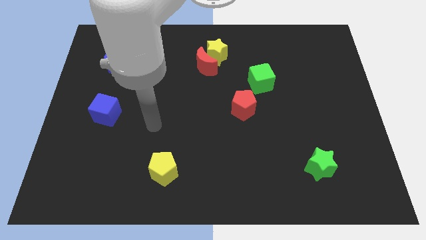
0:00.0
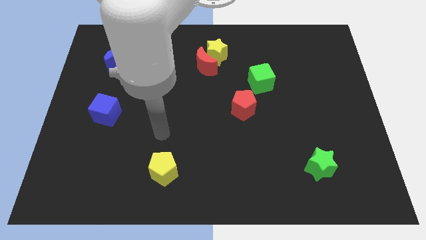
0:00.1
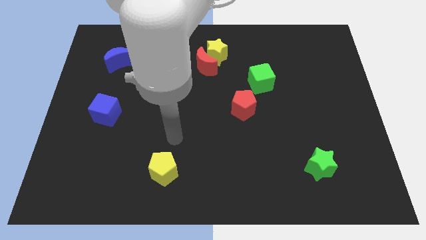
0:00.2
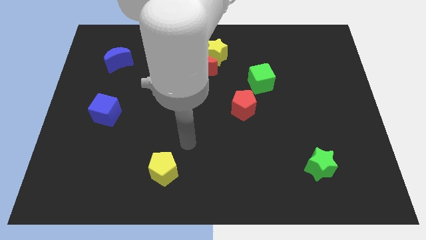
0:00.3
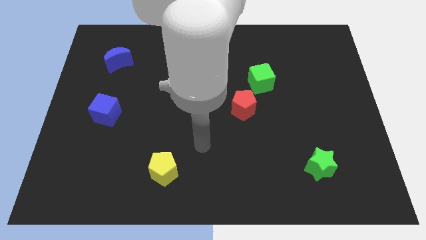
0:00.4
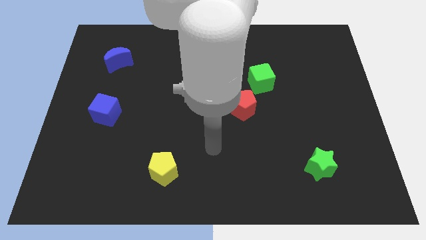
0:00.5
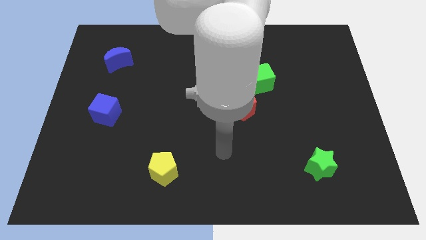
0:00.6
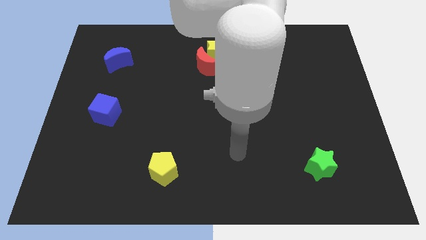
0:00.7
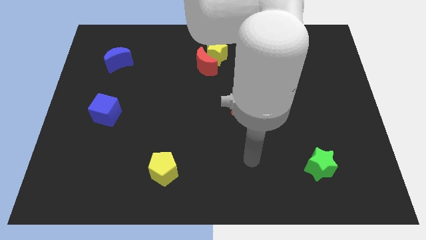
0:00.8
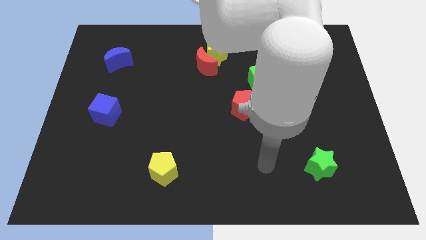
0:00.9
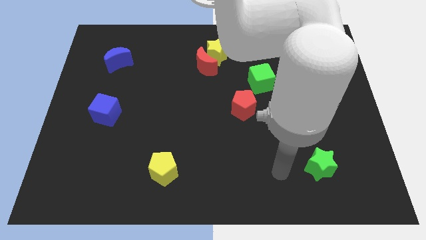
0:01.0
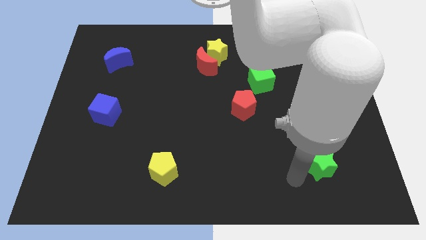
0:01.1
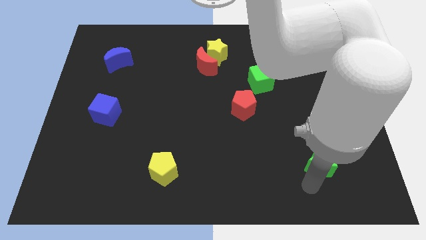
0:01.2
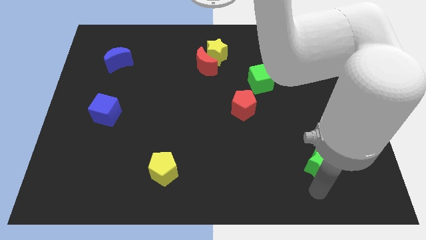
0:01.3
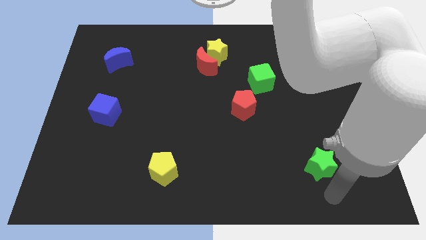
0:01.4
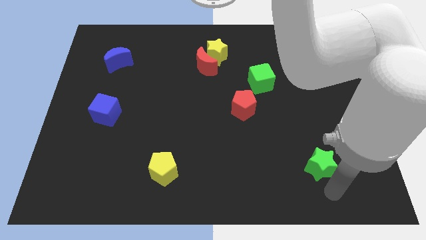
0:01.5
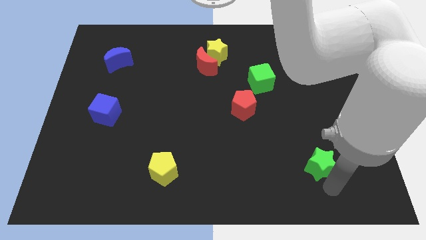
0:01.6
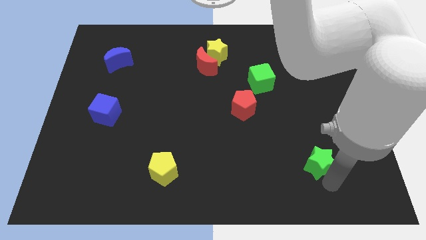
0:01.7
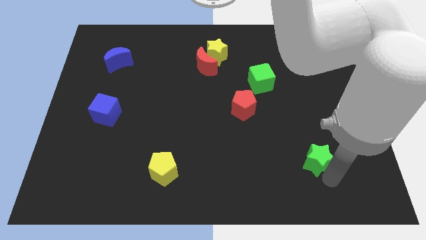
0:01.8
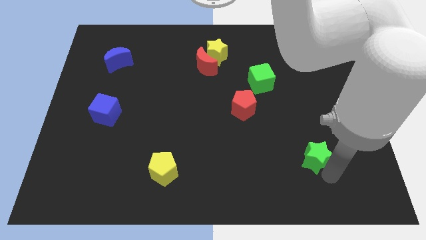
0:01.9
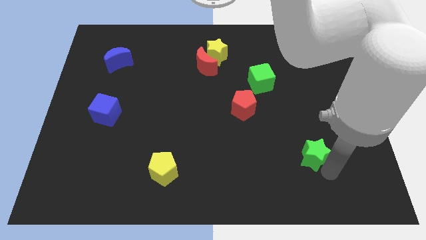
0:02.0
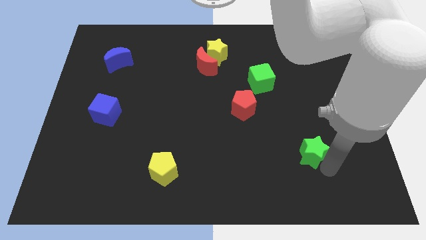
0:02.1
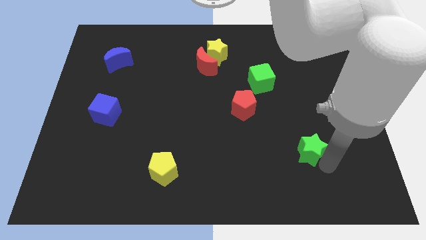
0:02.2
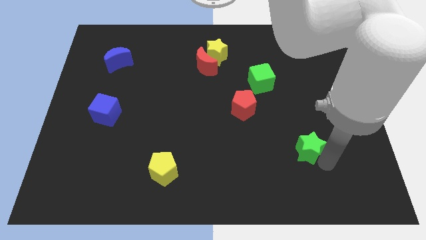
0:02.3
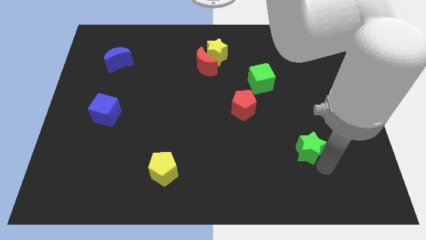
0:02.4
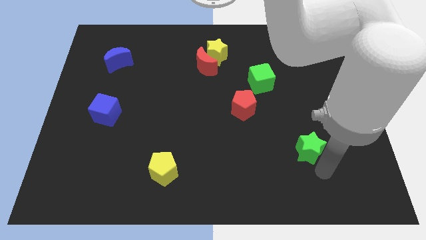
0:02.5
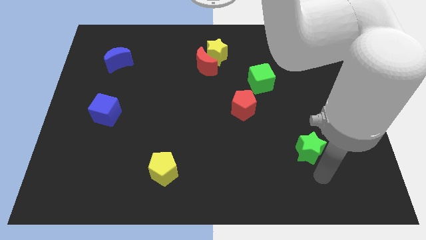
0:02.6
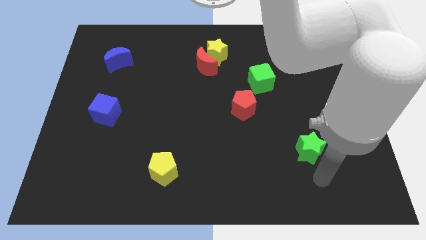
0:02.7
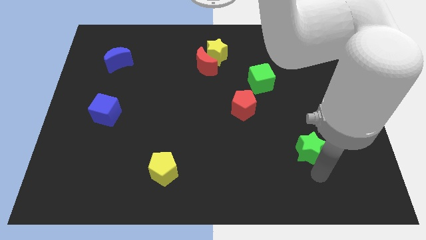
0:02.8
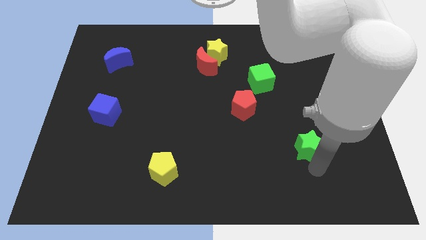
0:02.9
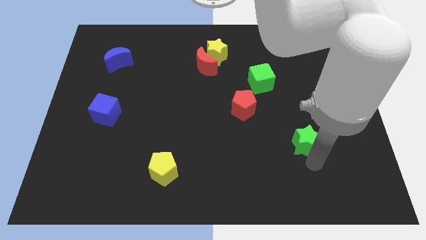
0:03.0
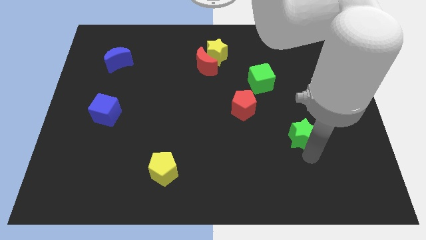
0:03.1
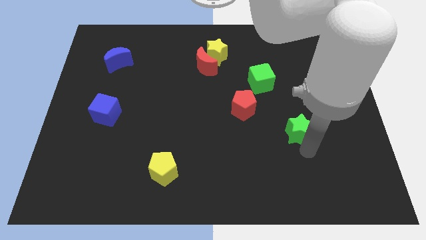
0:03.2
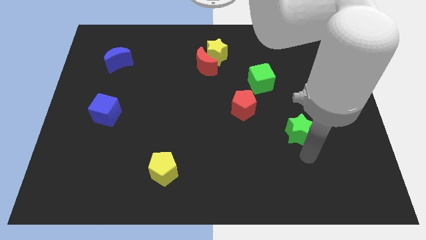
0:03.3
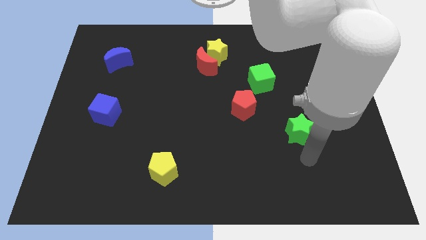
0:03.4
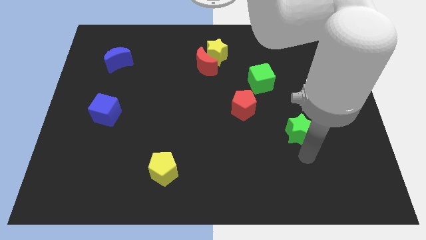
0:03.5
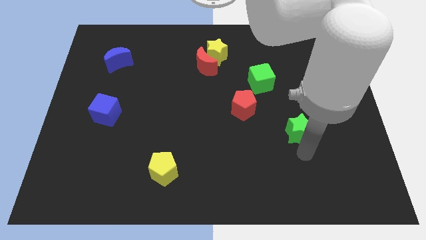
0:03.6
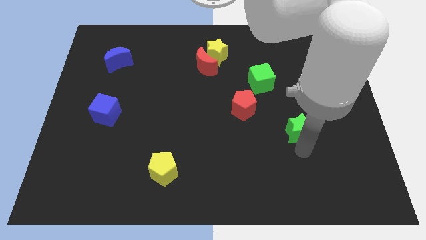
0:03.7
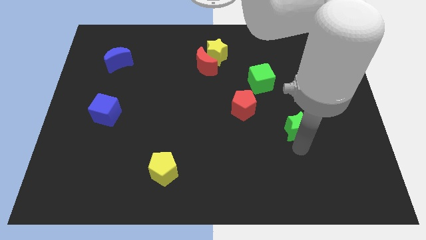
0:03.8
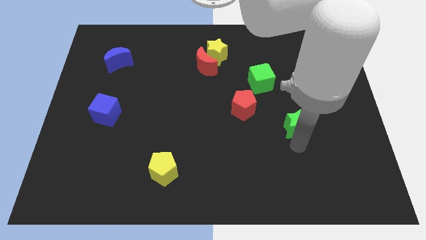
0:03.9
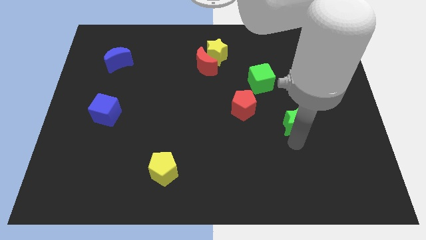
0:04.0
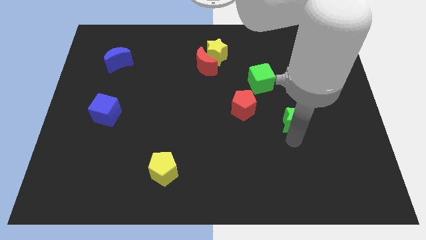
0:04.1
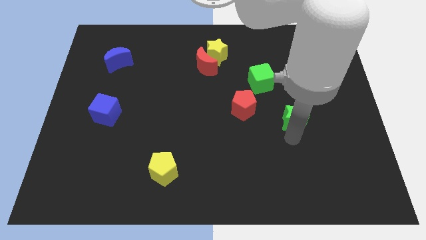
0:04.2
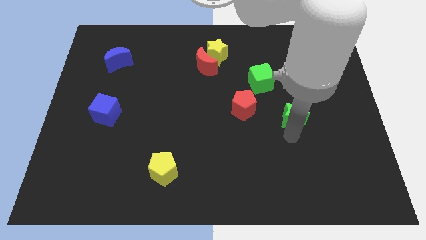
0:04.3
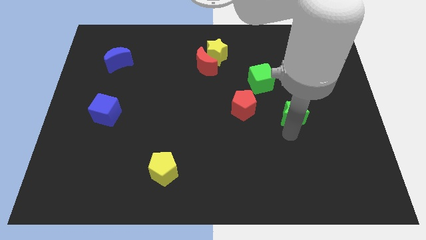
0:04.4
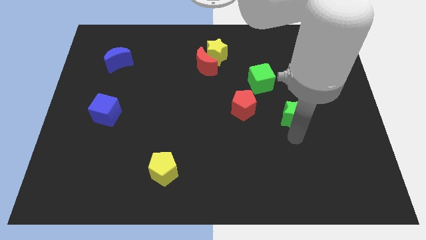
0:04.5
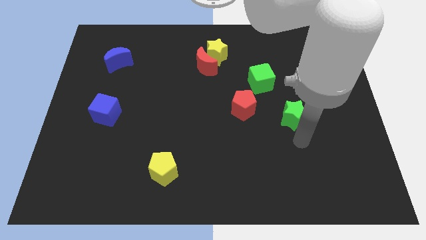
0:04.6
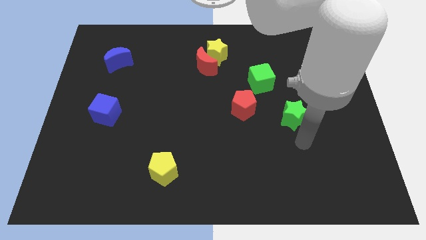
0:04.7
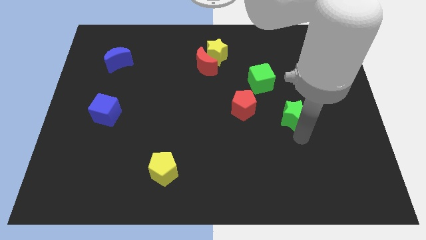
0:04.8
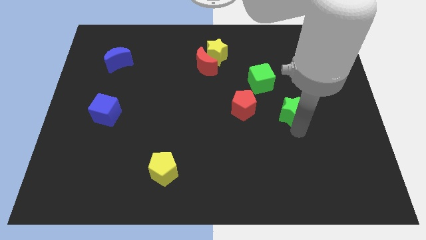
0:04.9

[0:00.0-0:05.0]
push the green star to the bottom right of the green cube

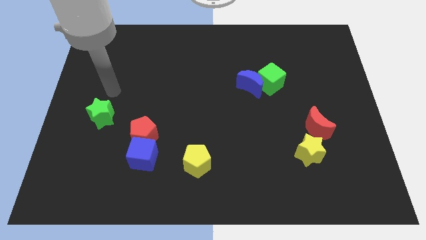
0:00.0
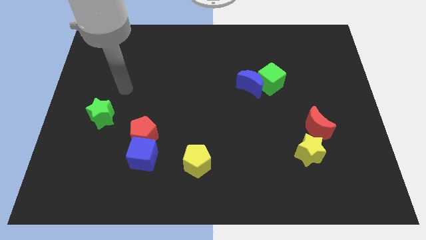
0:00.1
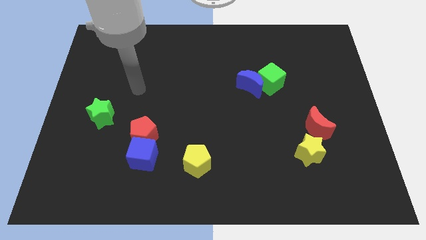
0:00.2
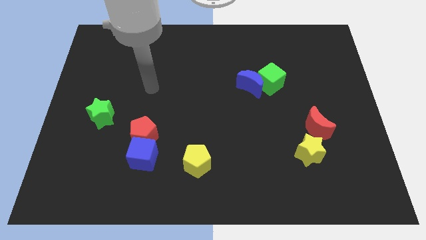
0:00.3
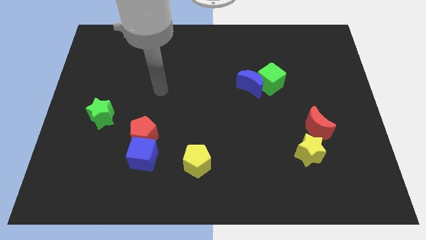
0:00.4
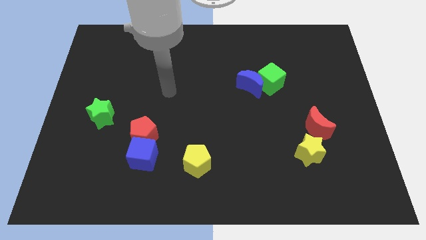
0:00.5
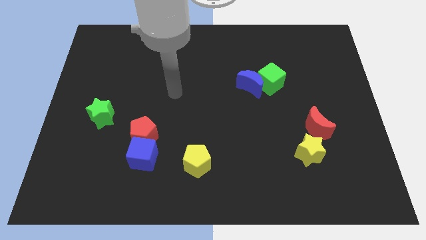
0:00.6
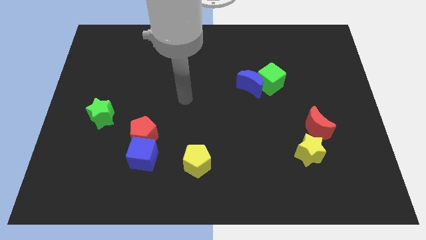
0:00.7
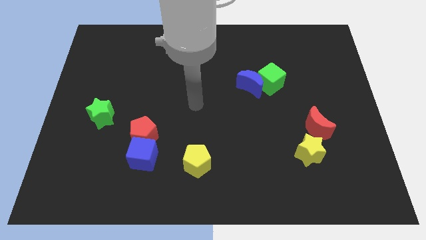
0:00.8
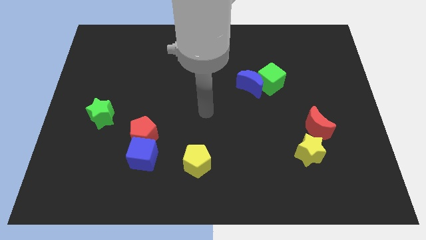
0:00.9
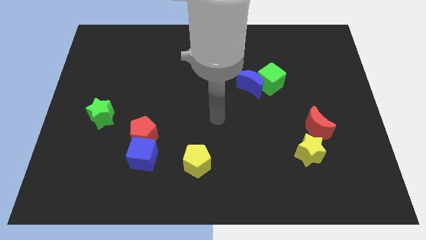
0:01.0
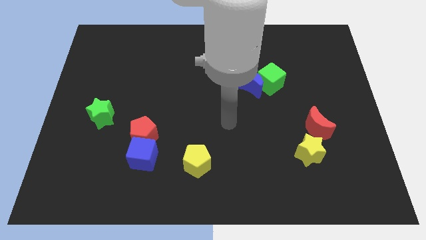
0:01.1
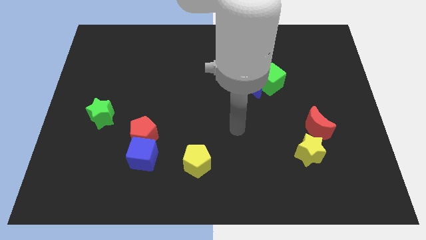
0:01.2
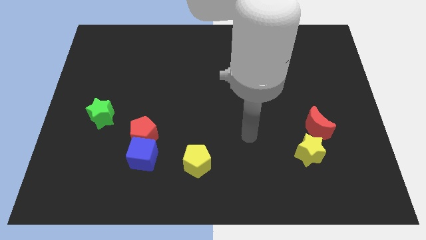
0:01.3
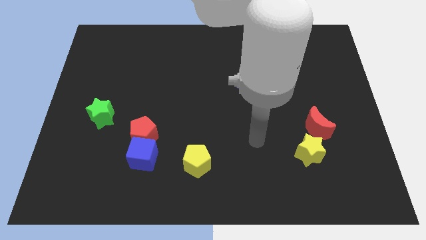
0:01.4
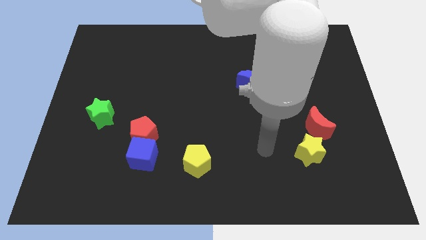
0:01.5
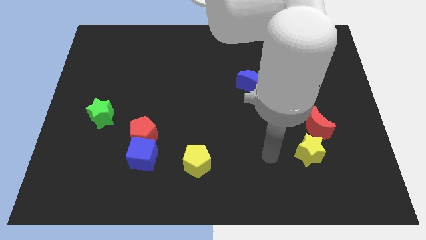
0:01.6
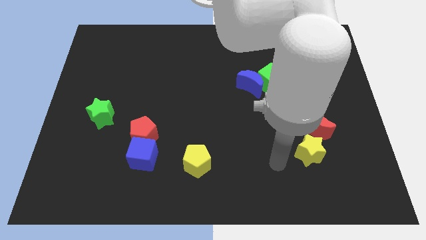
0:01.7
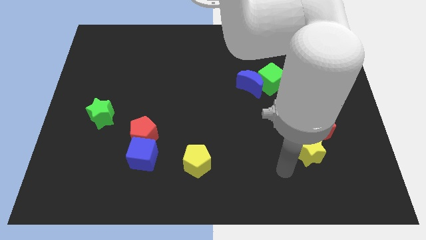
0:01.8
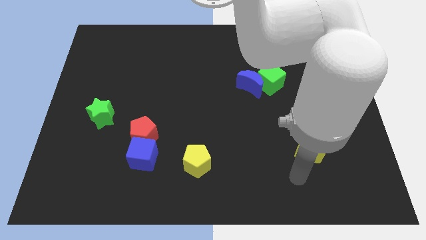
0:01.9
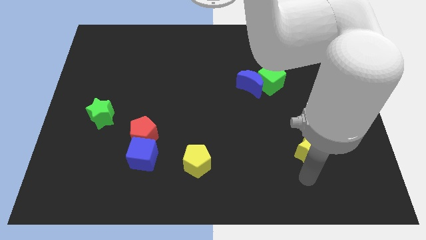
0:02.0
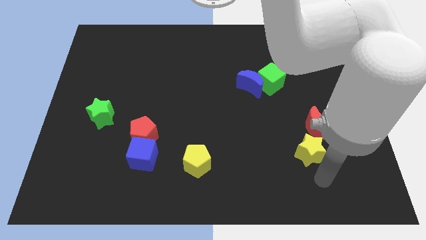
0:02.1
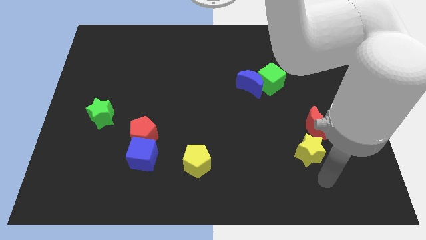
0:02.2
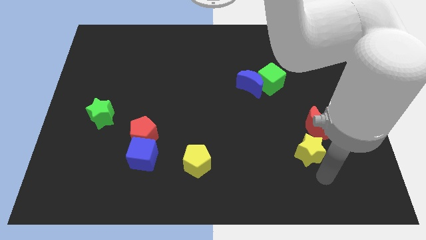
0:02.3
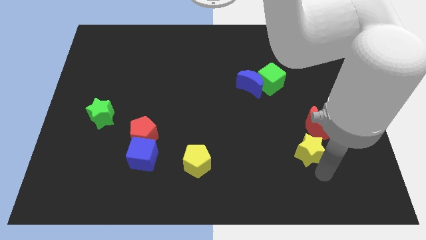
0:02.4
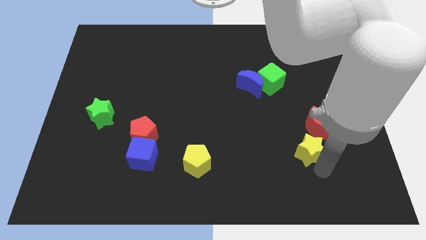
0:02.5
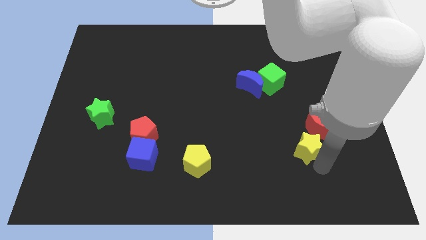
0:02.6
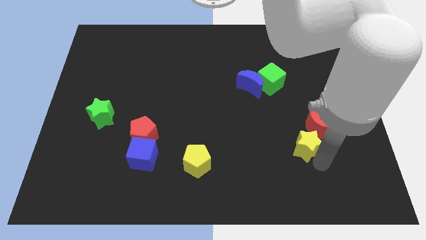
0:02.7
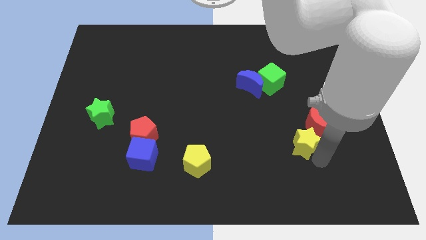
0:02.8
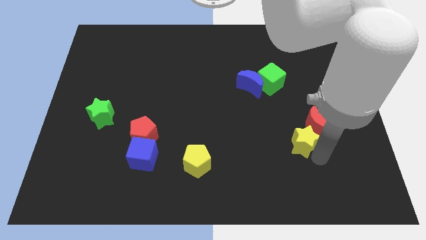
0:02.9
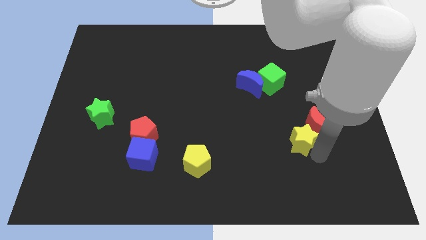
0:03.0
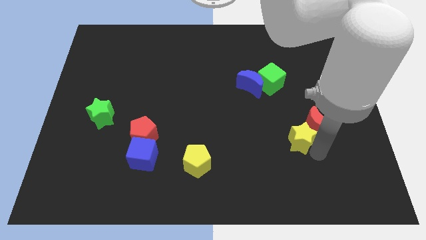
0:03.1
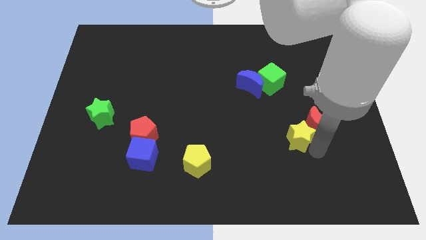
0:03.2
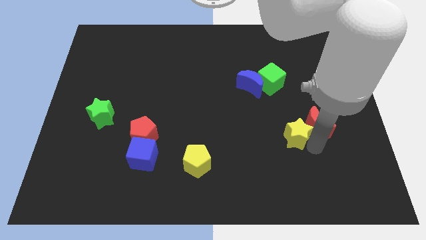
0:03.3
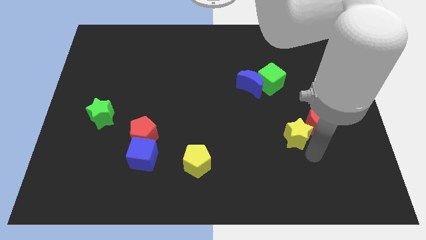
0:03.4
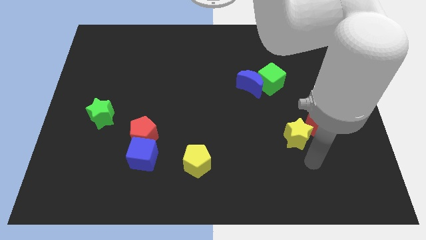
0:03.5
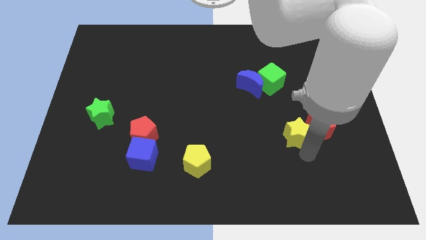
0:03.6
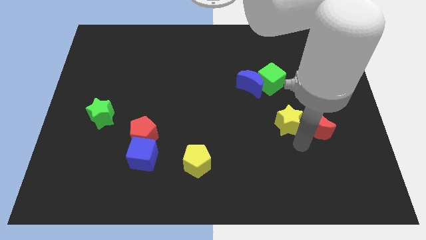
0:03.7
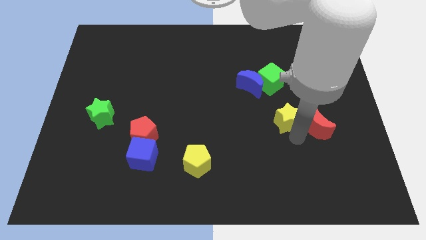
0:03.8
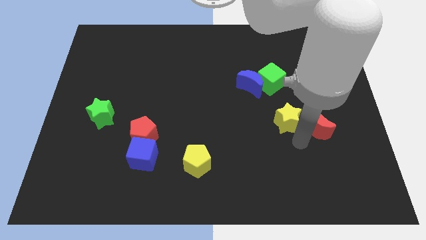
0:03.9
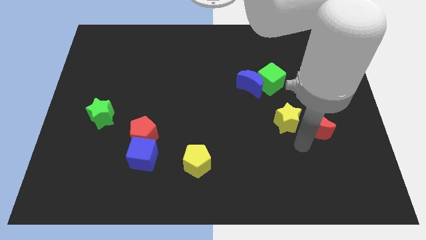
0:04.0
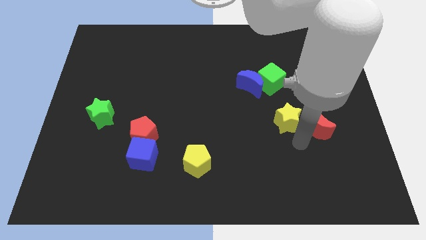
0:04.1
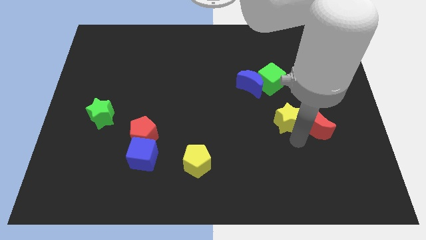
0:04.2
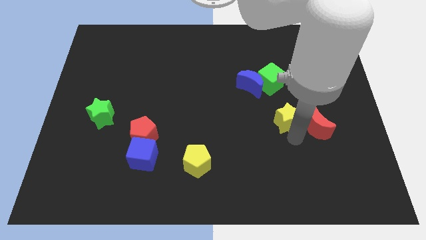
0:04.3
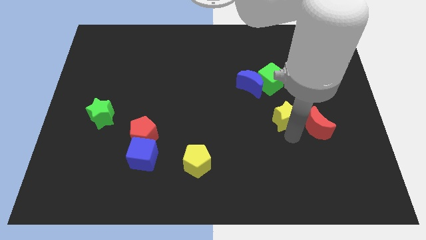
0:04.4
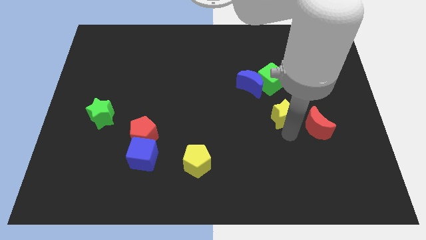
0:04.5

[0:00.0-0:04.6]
push the yellow star to the bottom right side of the blue moon
